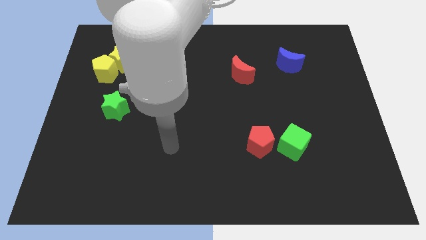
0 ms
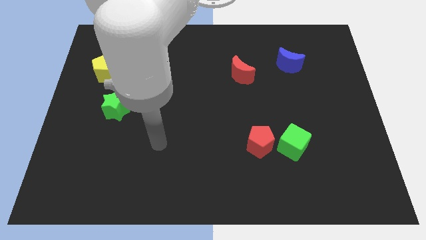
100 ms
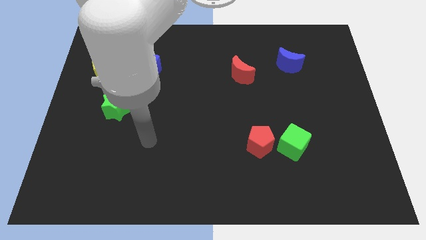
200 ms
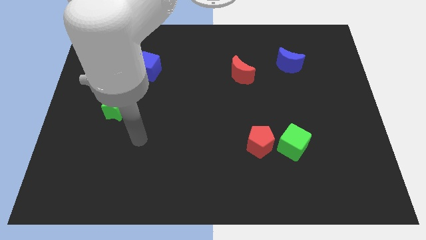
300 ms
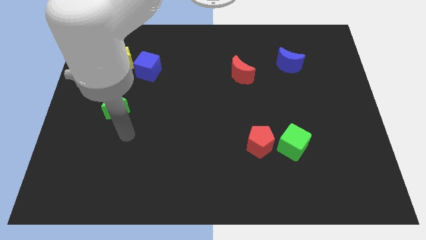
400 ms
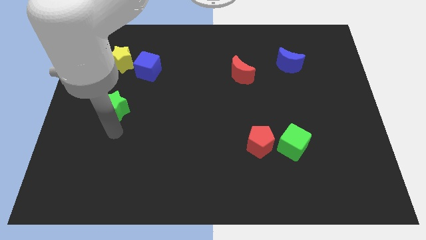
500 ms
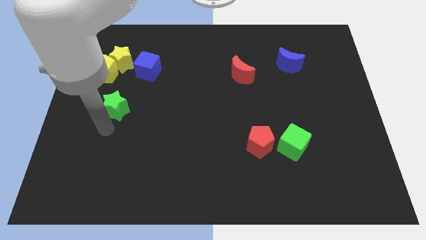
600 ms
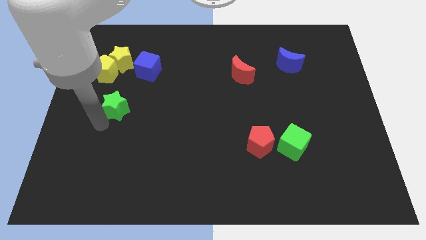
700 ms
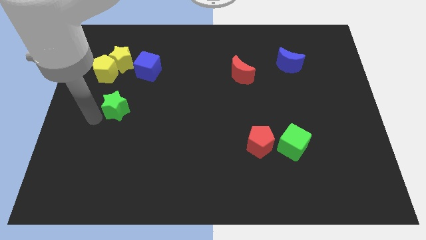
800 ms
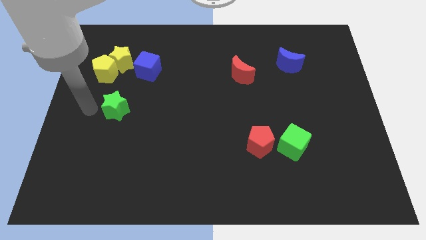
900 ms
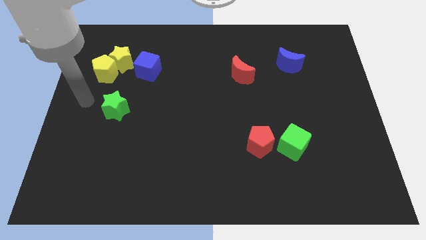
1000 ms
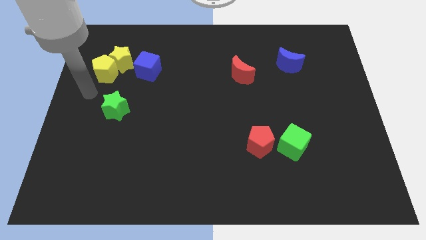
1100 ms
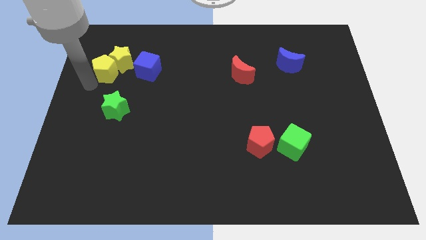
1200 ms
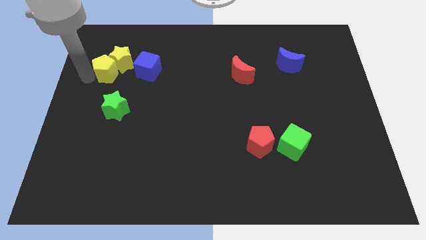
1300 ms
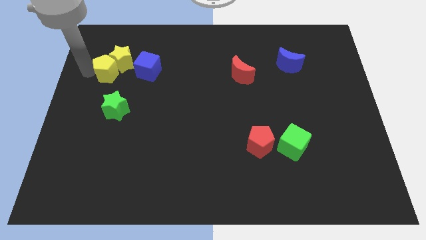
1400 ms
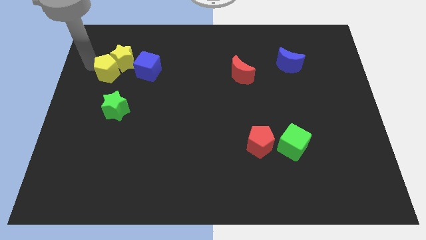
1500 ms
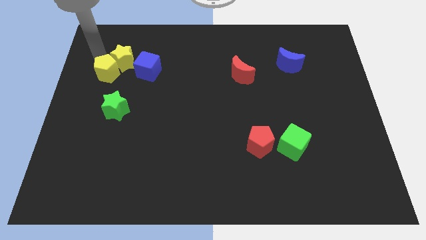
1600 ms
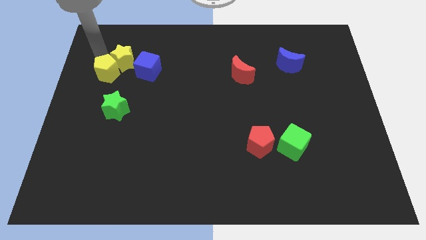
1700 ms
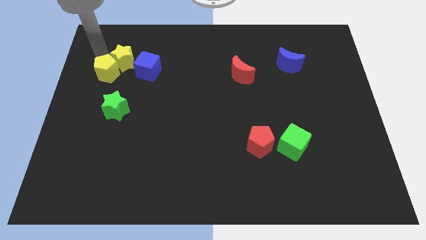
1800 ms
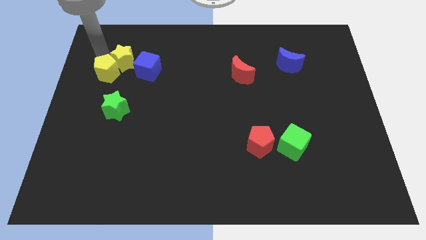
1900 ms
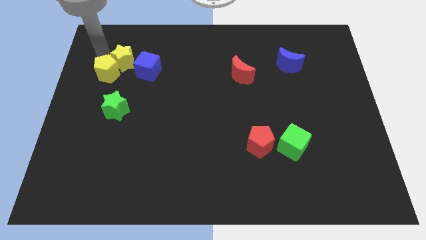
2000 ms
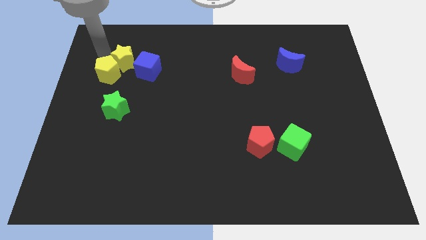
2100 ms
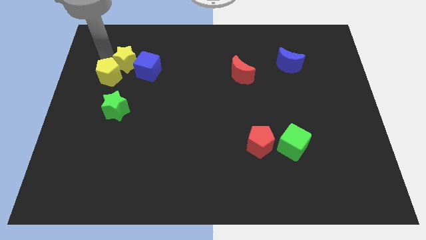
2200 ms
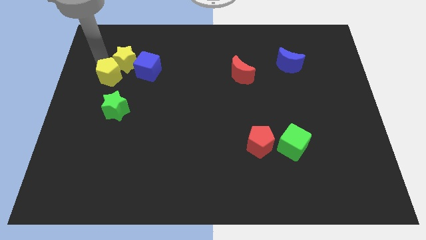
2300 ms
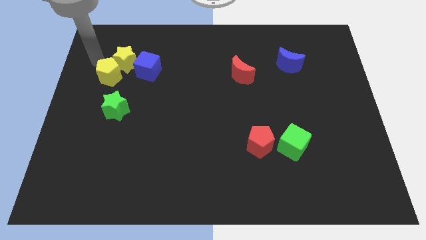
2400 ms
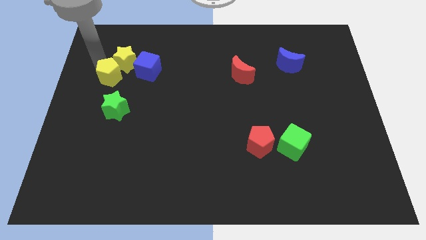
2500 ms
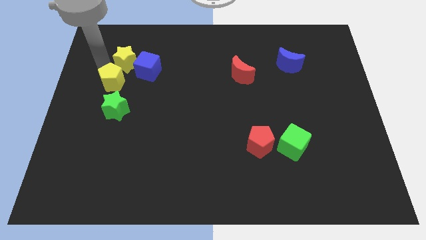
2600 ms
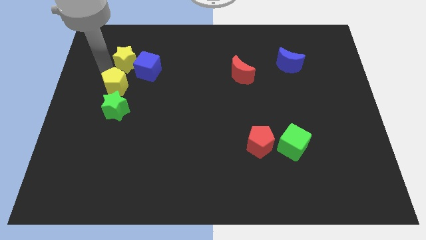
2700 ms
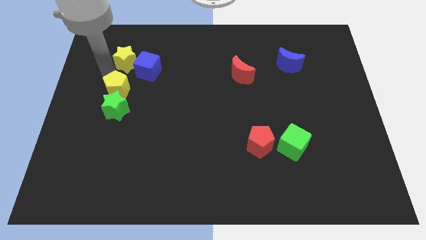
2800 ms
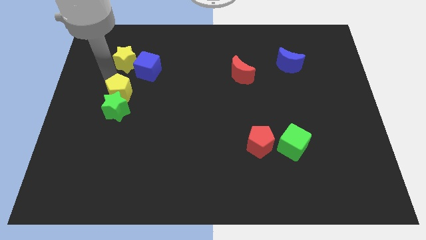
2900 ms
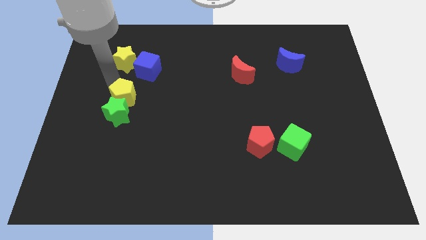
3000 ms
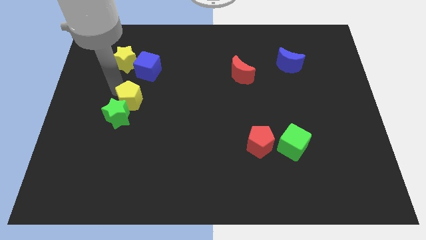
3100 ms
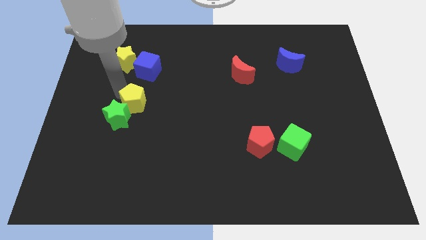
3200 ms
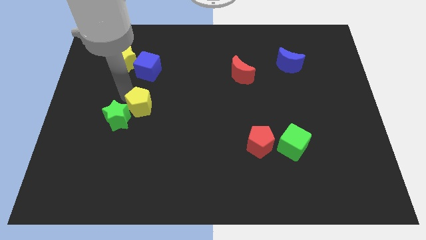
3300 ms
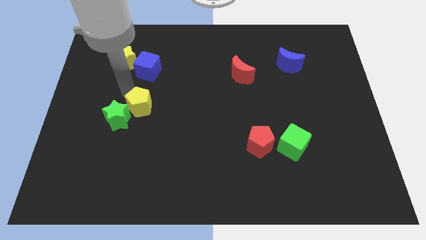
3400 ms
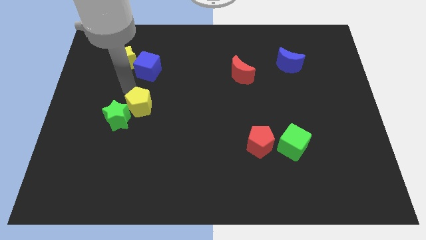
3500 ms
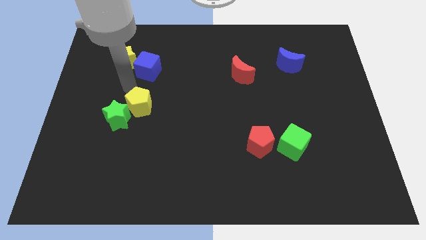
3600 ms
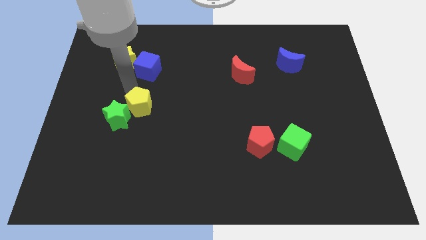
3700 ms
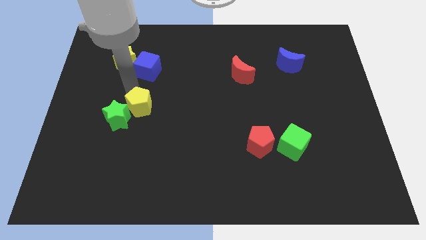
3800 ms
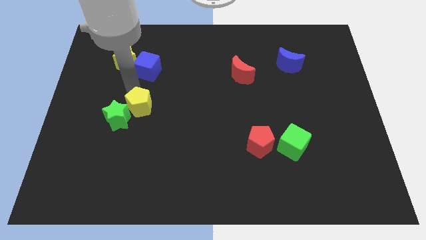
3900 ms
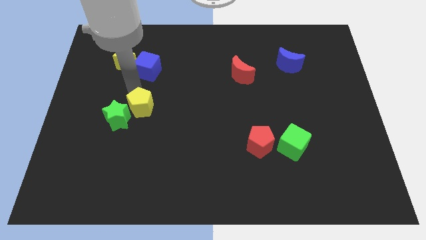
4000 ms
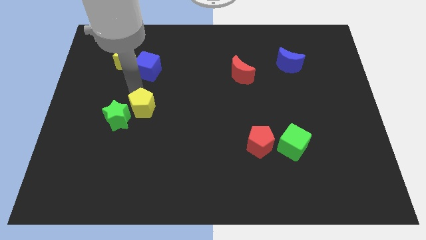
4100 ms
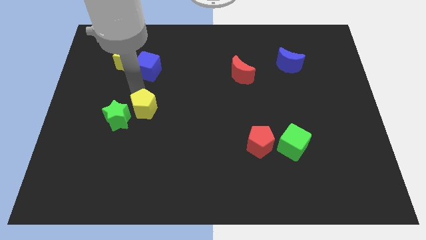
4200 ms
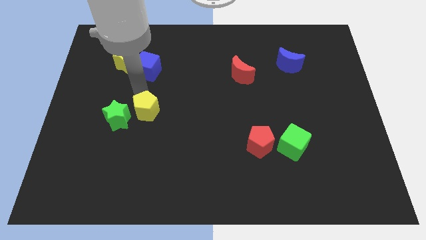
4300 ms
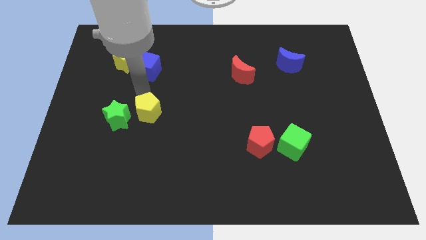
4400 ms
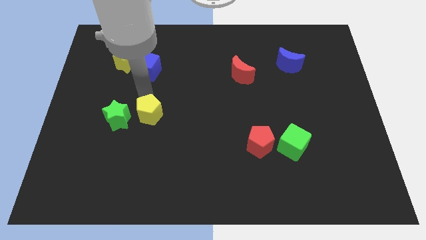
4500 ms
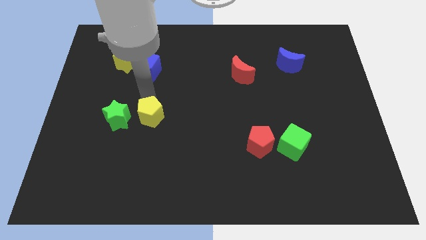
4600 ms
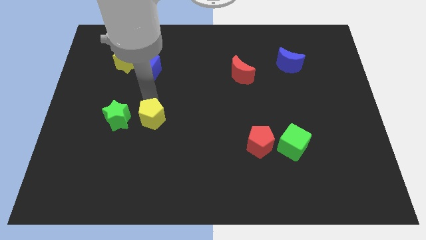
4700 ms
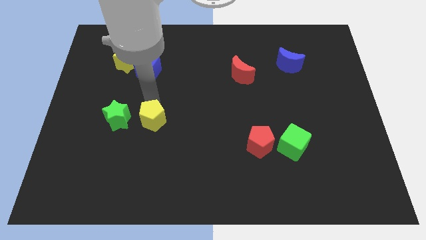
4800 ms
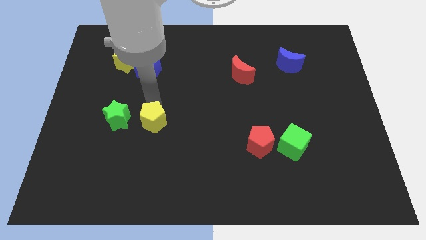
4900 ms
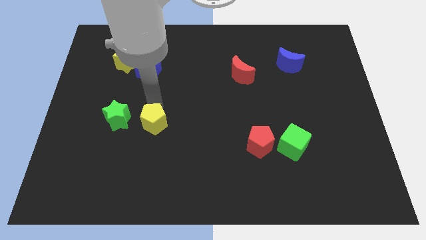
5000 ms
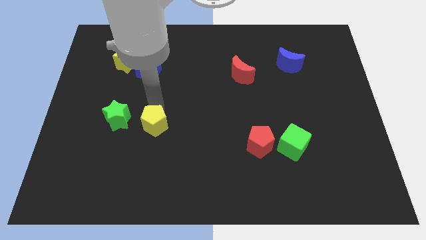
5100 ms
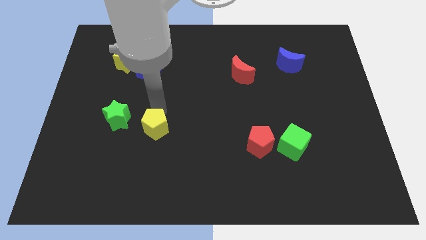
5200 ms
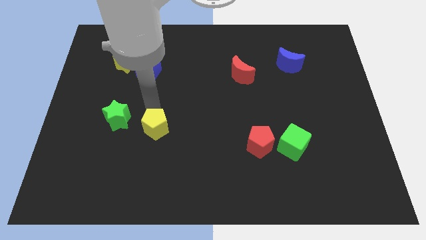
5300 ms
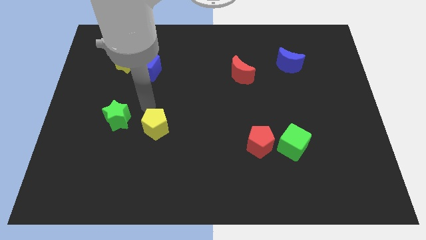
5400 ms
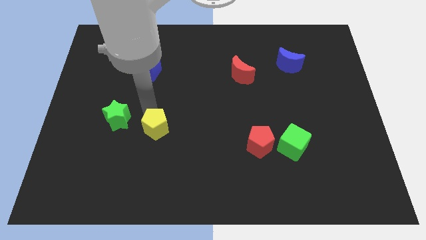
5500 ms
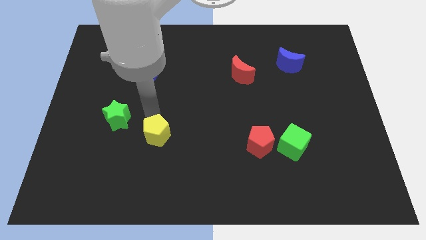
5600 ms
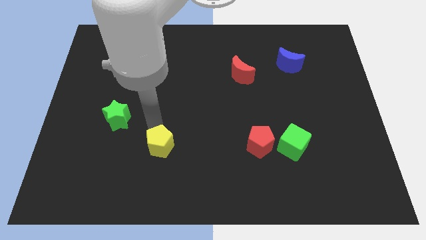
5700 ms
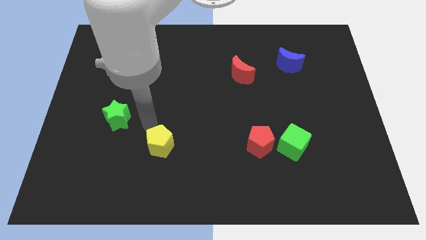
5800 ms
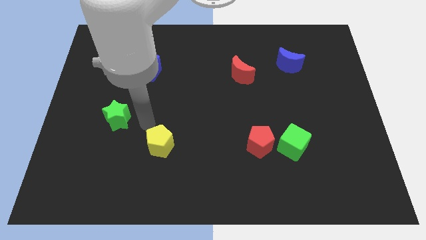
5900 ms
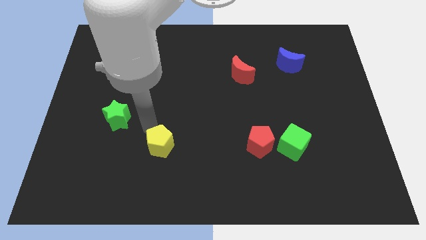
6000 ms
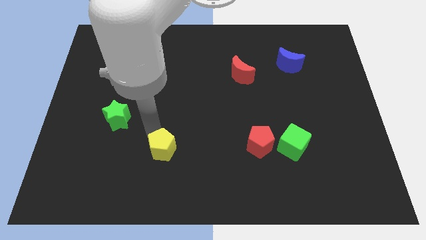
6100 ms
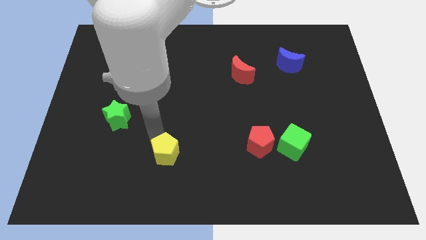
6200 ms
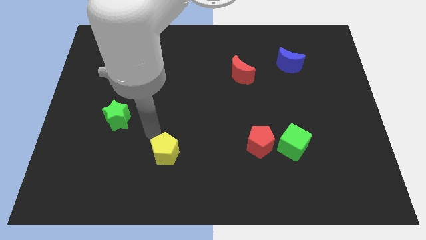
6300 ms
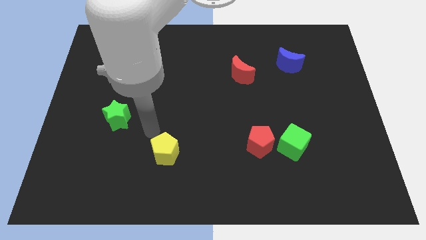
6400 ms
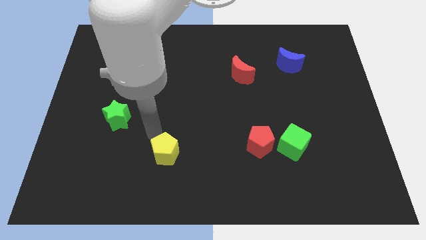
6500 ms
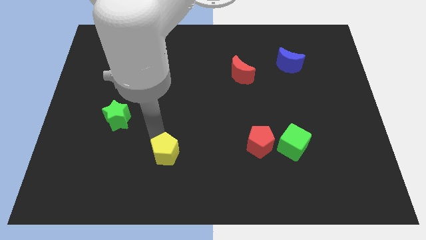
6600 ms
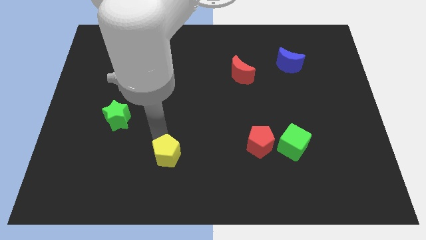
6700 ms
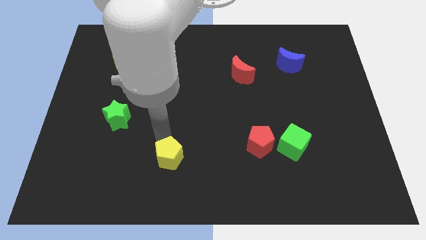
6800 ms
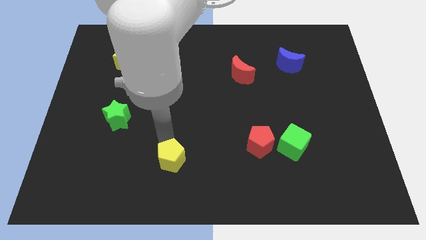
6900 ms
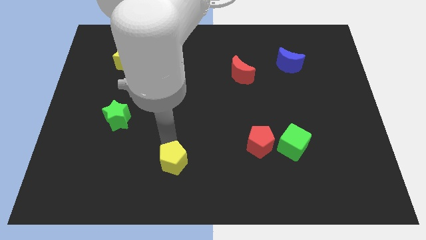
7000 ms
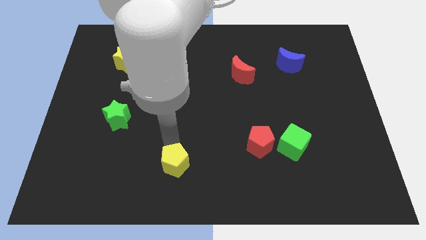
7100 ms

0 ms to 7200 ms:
move the yellow pentagon to the bottom side
